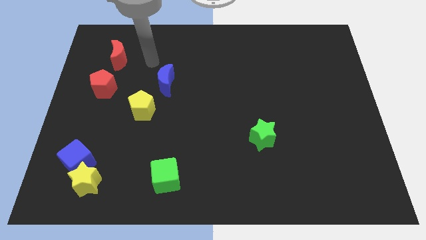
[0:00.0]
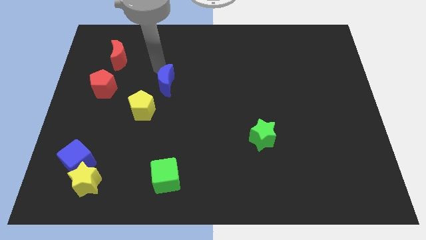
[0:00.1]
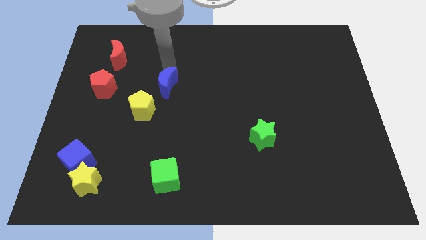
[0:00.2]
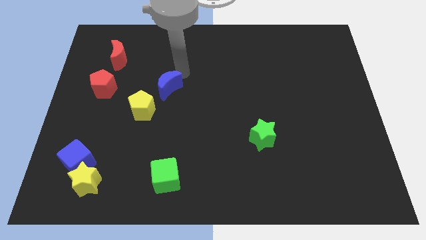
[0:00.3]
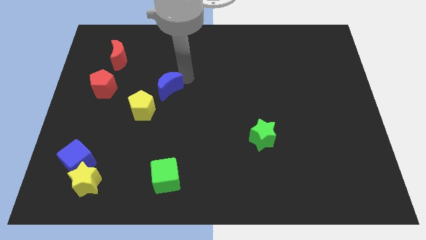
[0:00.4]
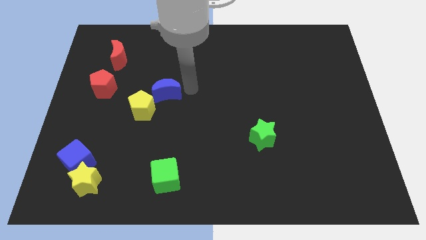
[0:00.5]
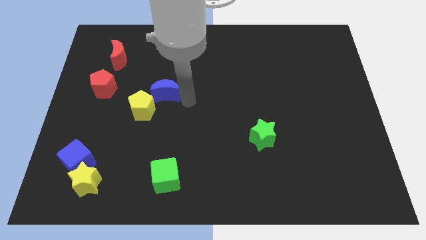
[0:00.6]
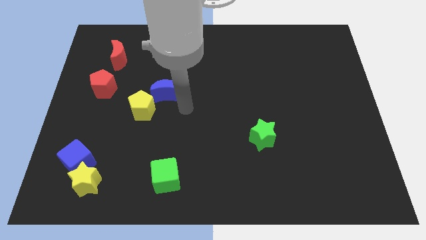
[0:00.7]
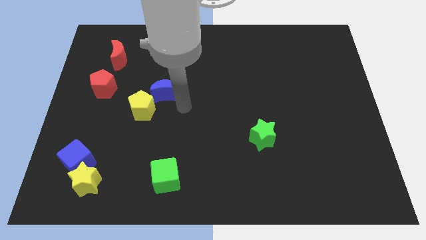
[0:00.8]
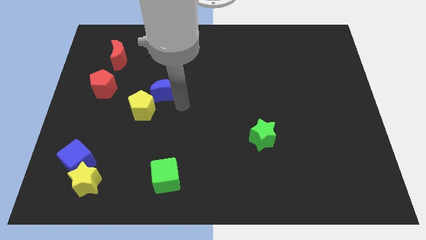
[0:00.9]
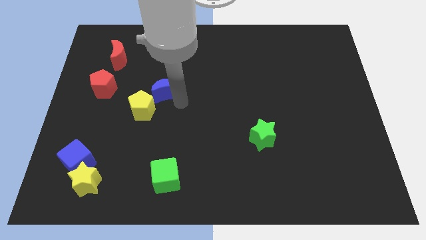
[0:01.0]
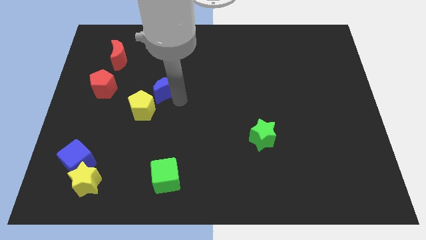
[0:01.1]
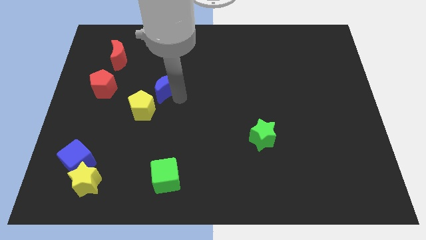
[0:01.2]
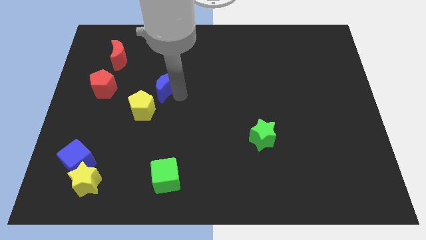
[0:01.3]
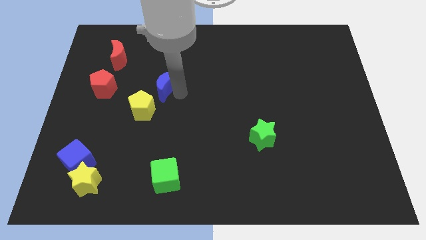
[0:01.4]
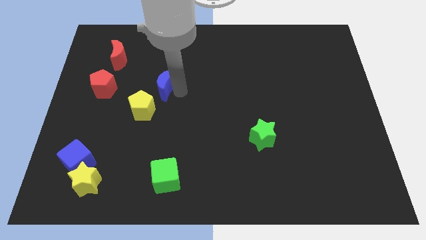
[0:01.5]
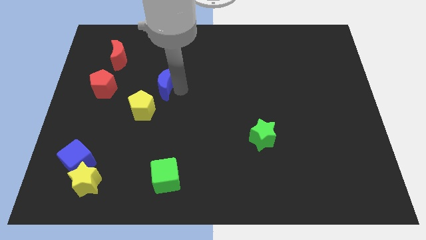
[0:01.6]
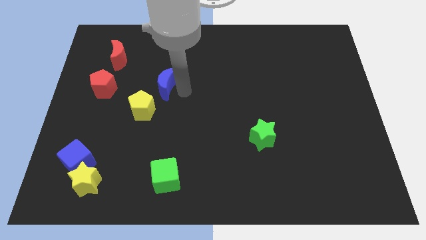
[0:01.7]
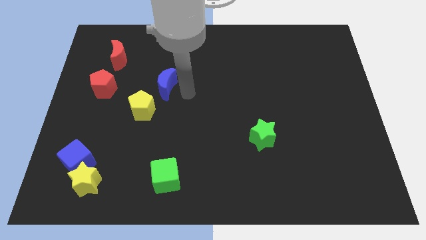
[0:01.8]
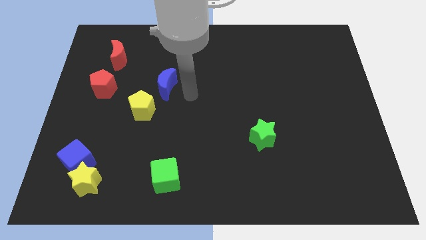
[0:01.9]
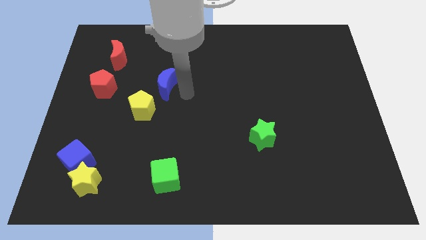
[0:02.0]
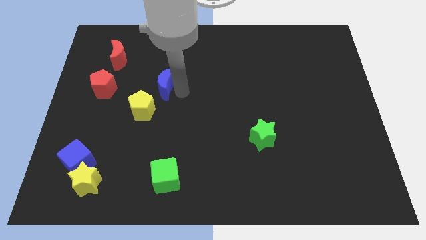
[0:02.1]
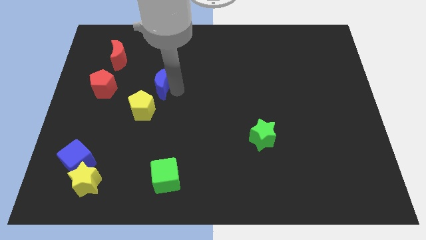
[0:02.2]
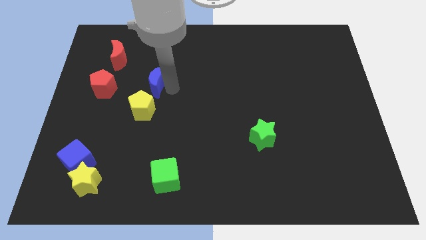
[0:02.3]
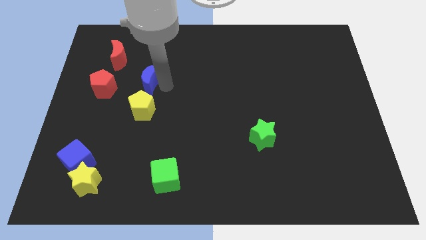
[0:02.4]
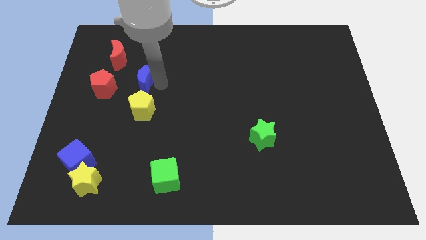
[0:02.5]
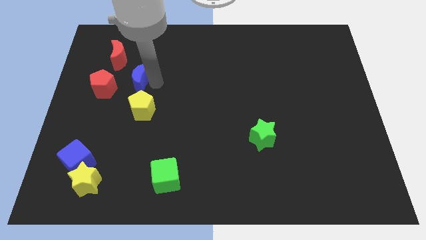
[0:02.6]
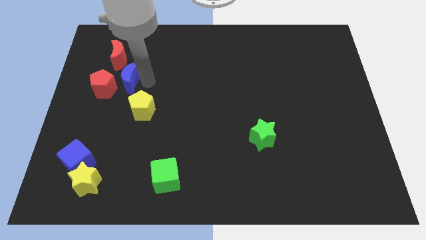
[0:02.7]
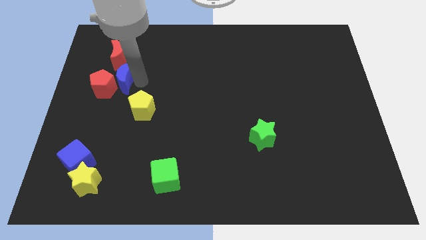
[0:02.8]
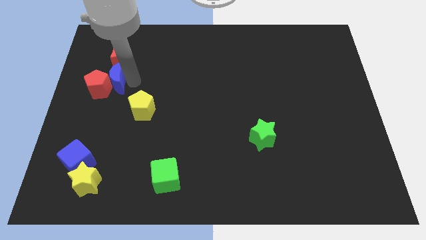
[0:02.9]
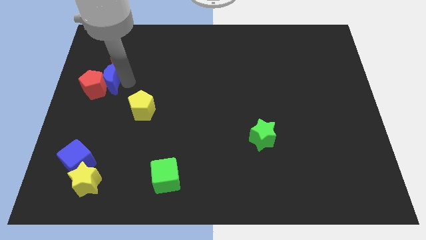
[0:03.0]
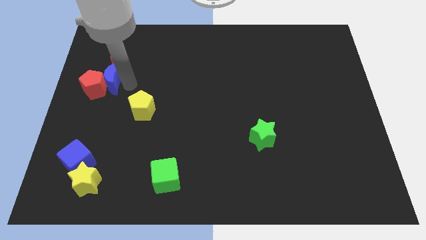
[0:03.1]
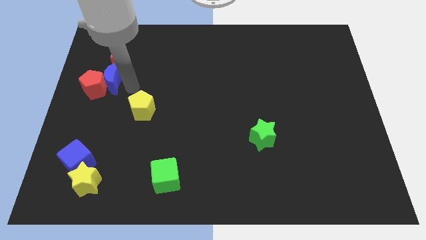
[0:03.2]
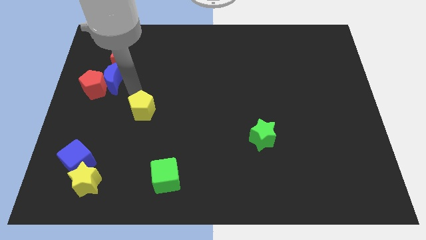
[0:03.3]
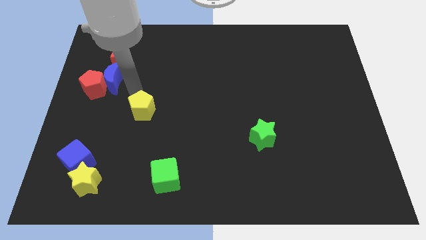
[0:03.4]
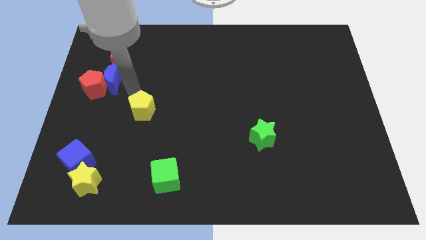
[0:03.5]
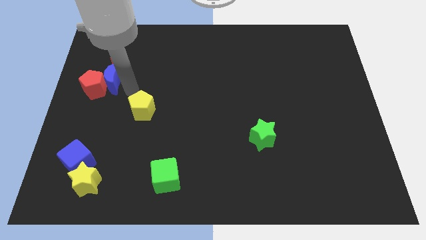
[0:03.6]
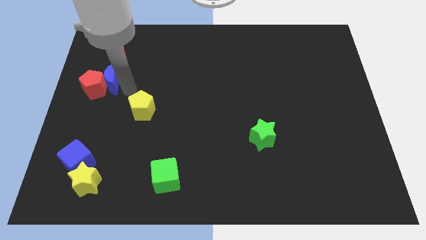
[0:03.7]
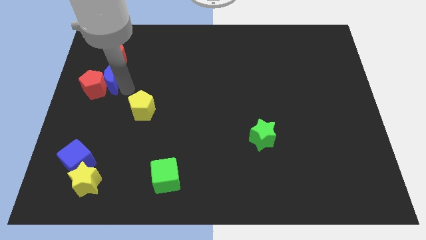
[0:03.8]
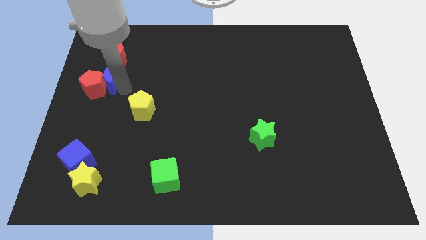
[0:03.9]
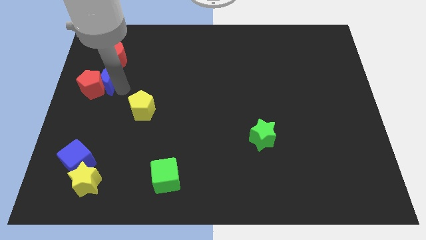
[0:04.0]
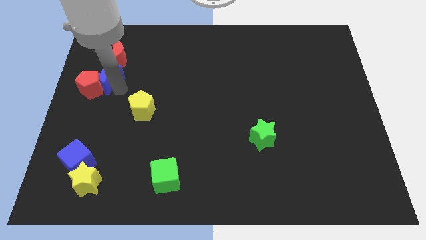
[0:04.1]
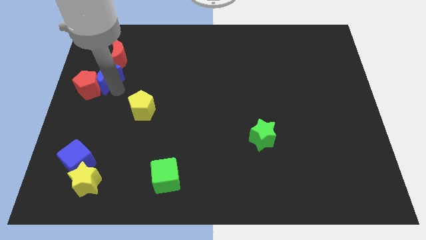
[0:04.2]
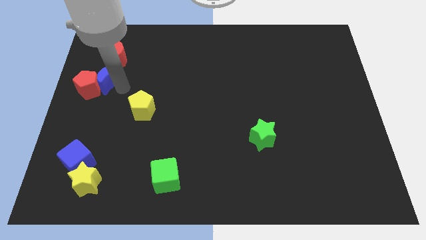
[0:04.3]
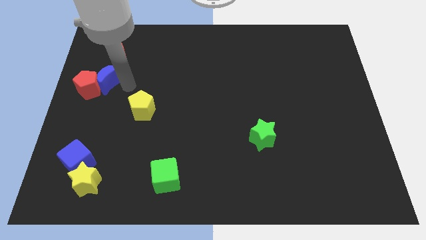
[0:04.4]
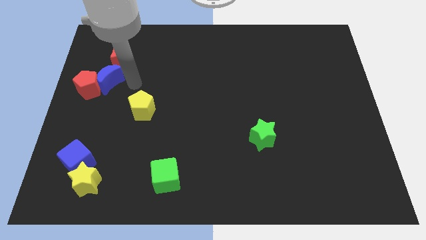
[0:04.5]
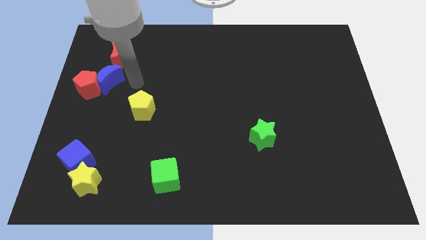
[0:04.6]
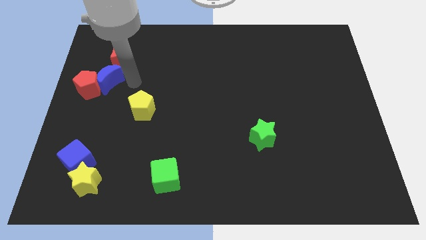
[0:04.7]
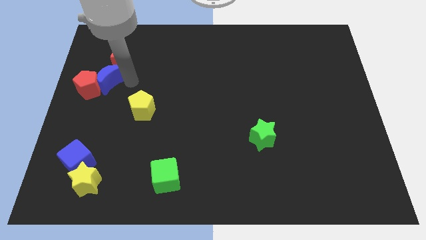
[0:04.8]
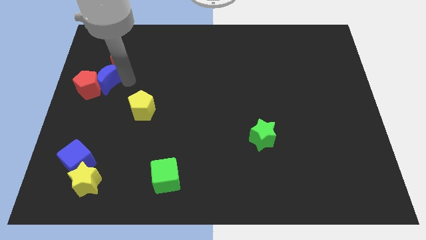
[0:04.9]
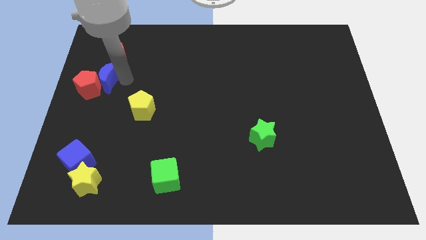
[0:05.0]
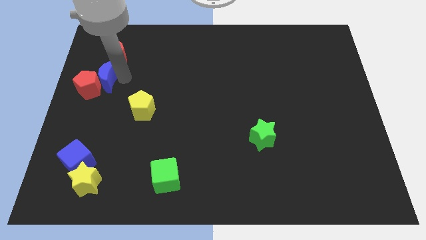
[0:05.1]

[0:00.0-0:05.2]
slide the blue moon to the center left

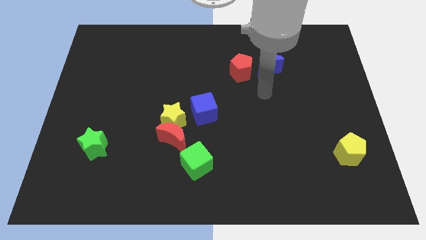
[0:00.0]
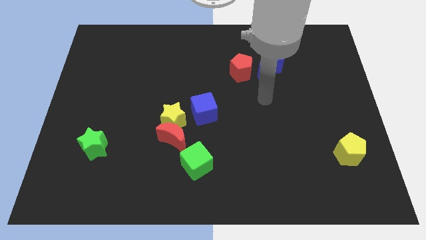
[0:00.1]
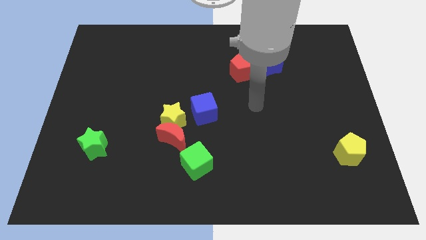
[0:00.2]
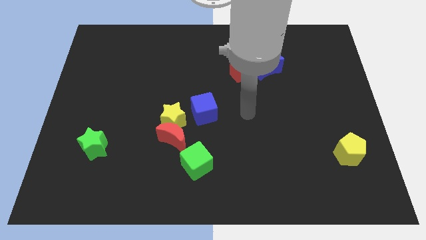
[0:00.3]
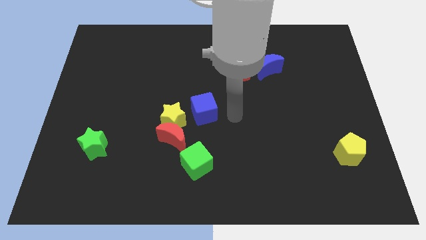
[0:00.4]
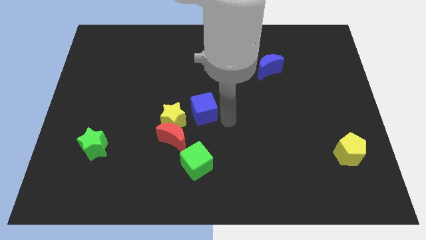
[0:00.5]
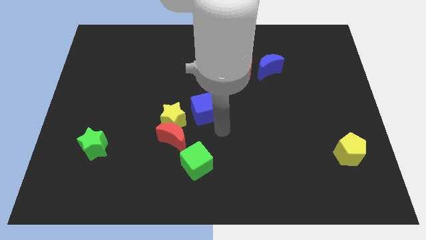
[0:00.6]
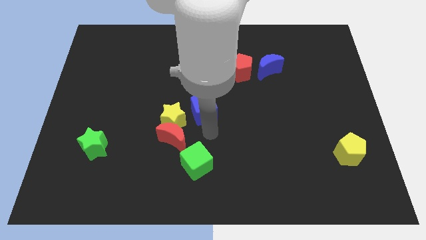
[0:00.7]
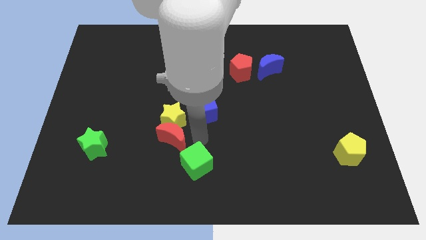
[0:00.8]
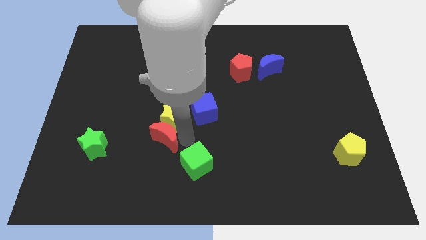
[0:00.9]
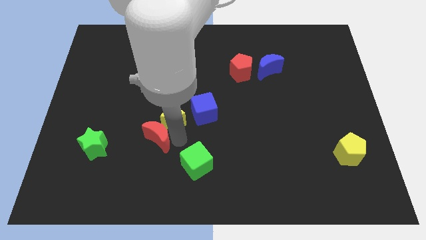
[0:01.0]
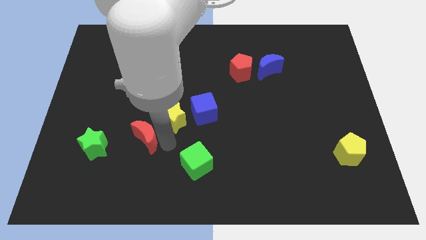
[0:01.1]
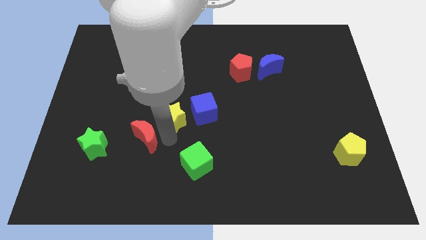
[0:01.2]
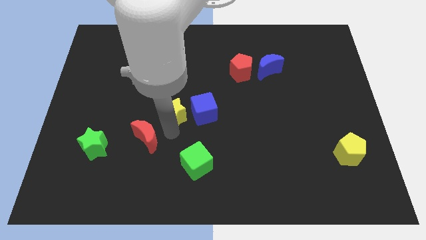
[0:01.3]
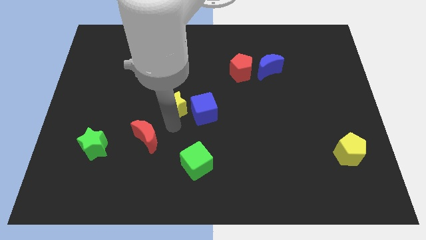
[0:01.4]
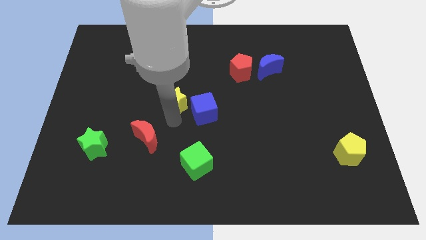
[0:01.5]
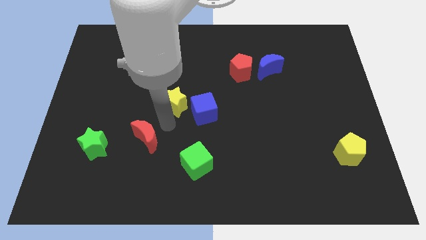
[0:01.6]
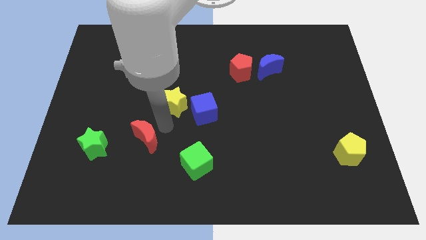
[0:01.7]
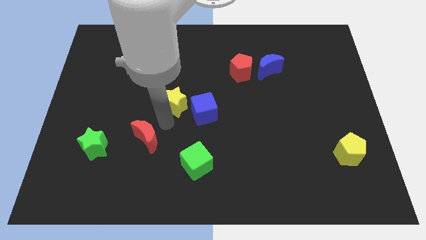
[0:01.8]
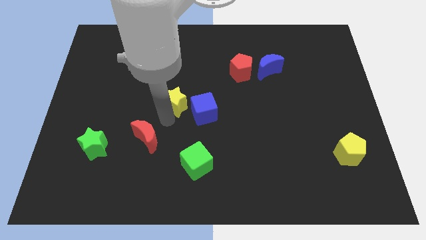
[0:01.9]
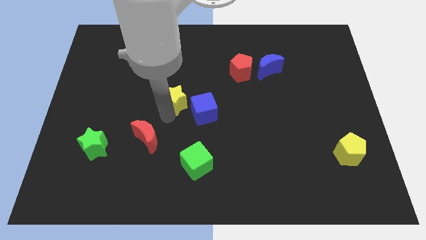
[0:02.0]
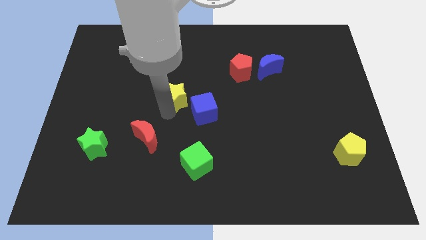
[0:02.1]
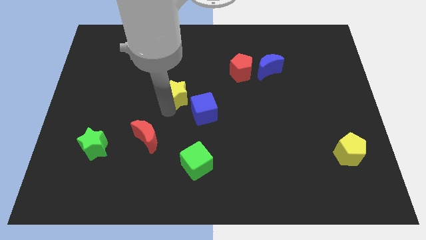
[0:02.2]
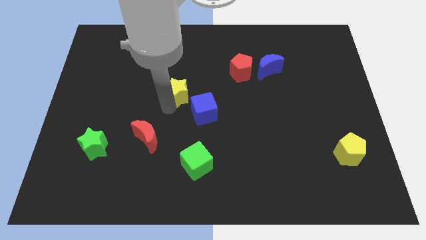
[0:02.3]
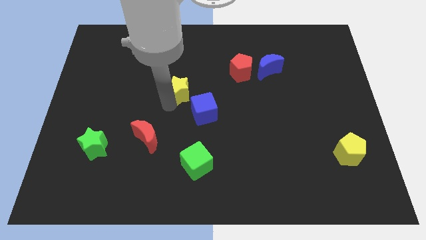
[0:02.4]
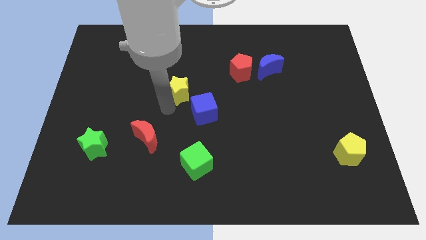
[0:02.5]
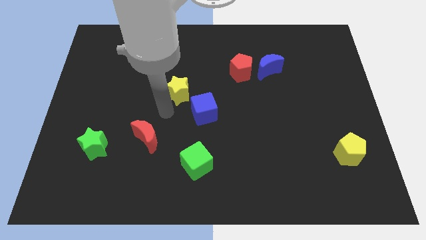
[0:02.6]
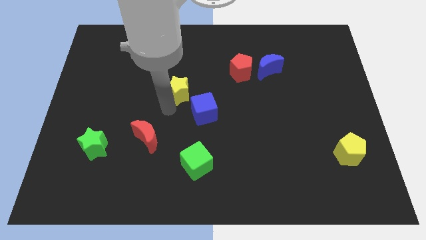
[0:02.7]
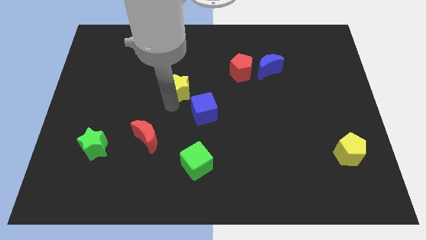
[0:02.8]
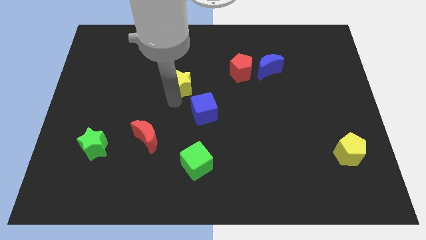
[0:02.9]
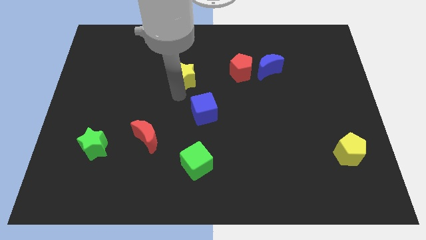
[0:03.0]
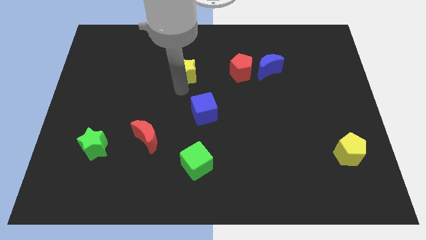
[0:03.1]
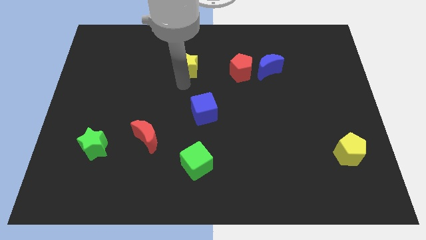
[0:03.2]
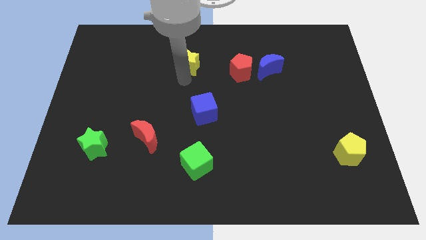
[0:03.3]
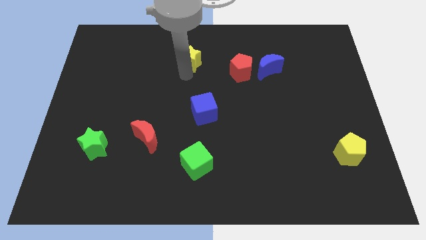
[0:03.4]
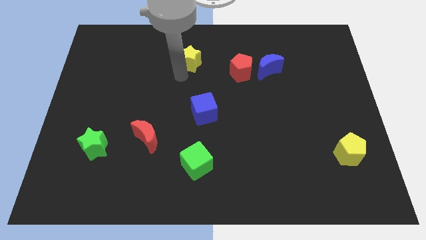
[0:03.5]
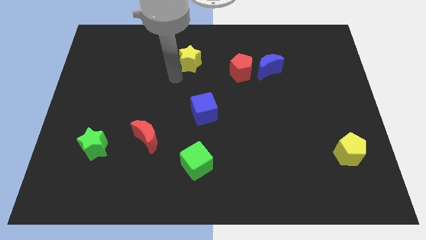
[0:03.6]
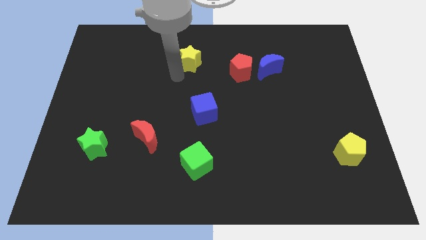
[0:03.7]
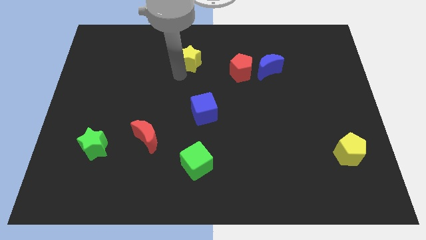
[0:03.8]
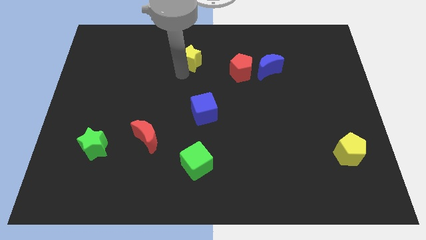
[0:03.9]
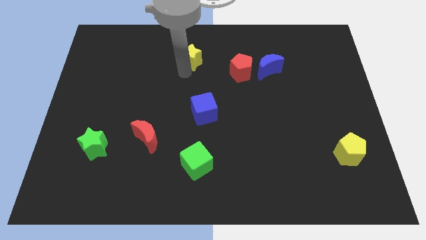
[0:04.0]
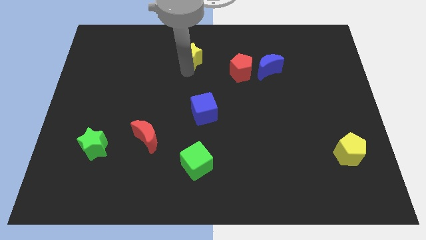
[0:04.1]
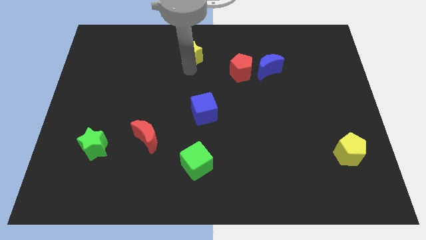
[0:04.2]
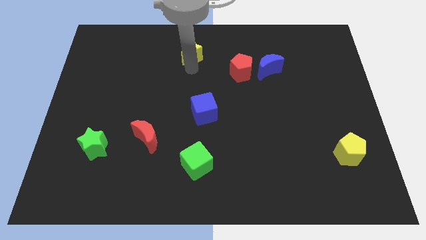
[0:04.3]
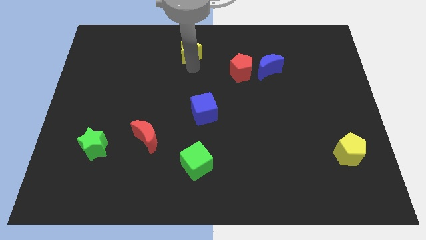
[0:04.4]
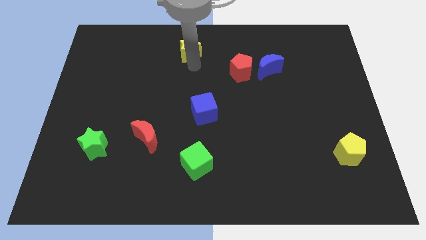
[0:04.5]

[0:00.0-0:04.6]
push the yellow star to the top
